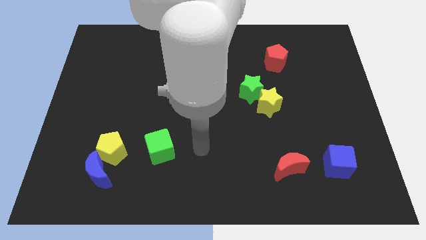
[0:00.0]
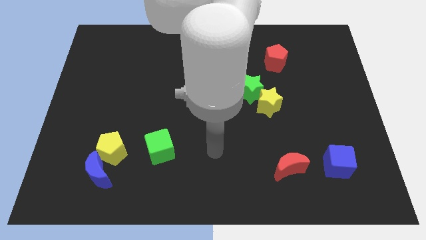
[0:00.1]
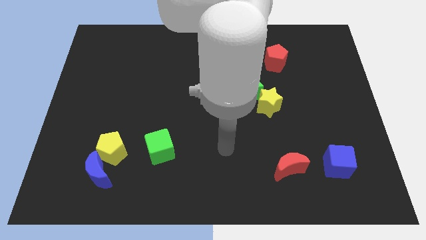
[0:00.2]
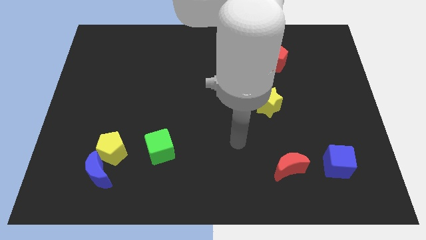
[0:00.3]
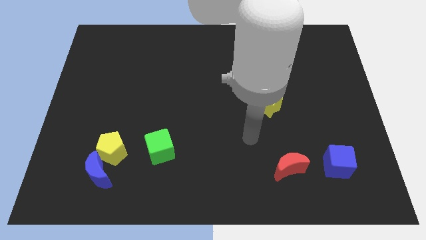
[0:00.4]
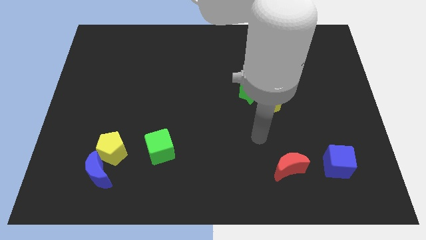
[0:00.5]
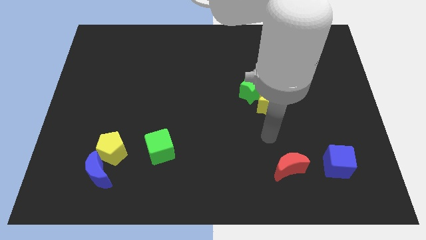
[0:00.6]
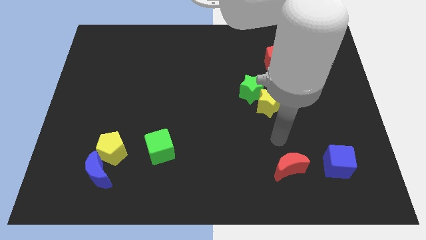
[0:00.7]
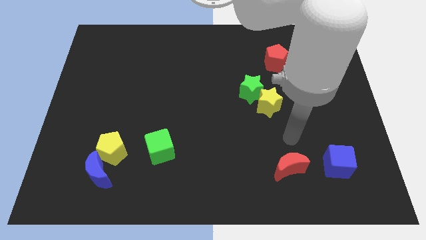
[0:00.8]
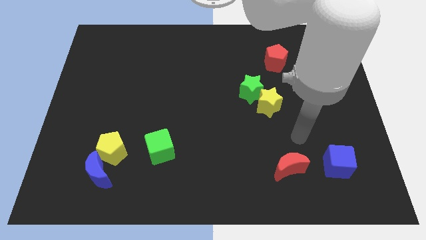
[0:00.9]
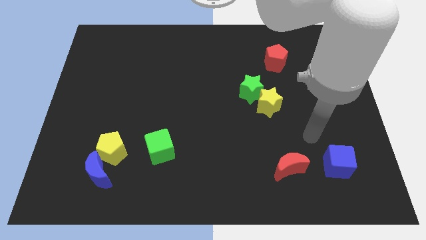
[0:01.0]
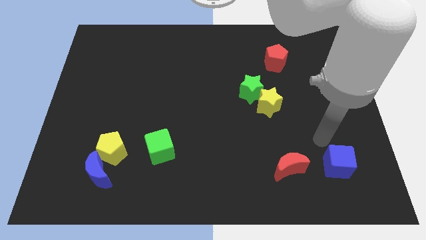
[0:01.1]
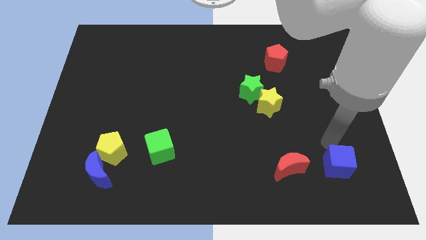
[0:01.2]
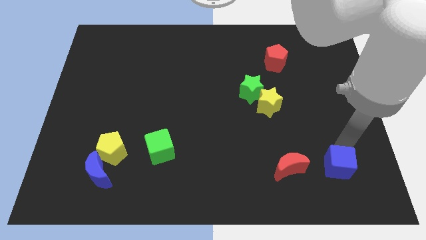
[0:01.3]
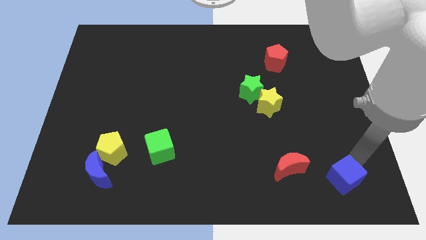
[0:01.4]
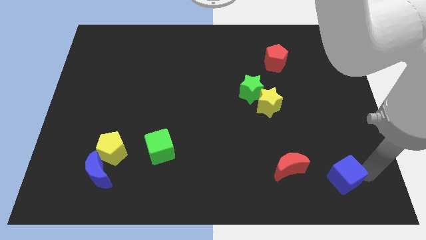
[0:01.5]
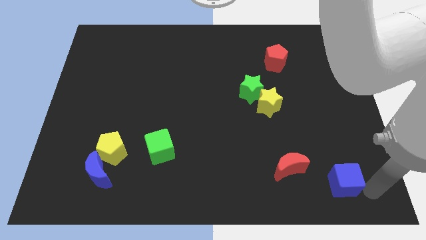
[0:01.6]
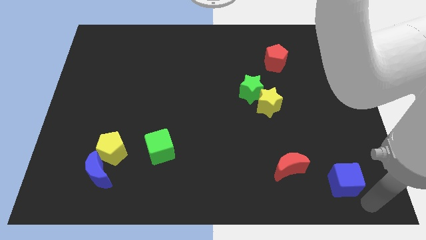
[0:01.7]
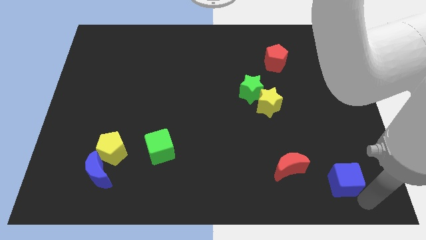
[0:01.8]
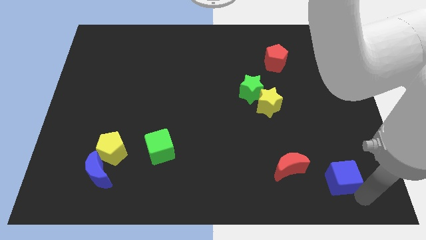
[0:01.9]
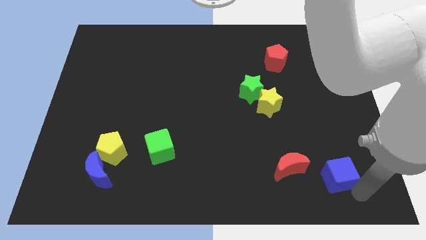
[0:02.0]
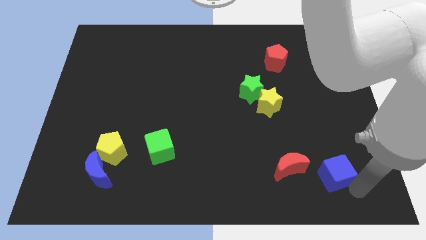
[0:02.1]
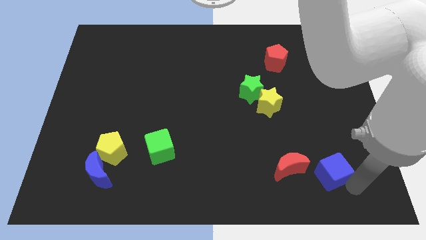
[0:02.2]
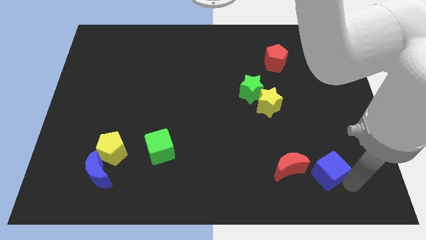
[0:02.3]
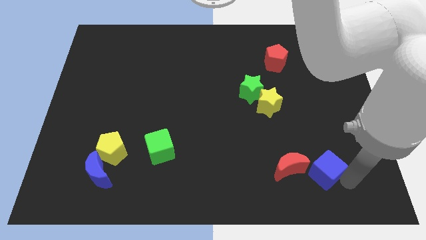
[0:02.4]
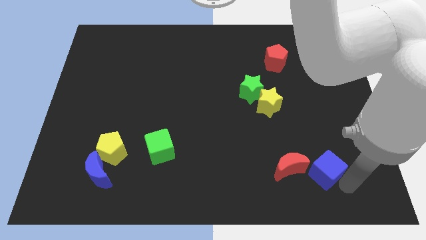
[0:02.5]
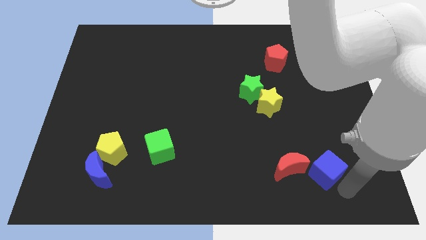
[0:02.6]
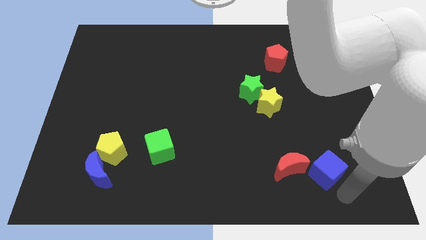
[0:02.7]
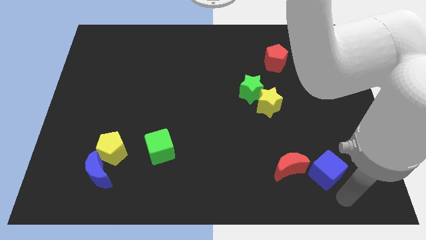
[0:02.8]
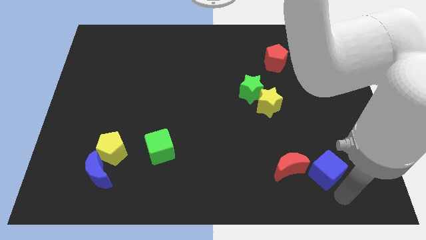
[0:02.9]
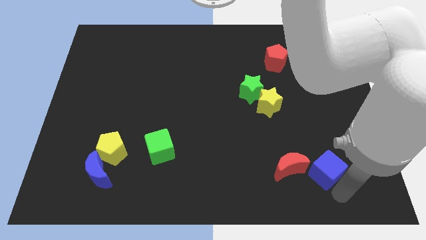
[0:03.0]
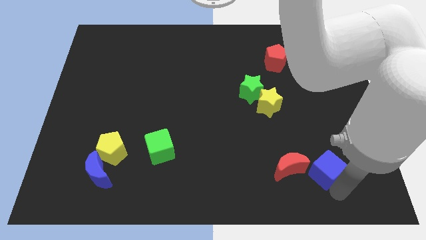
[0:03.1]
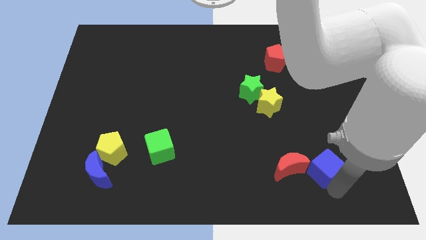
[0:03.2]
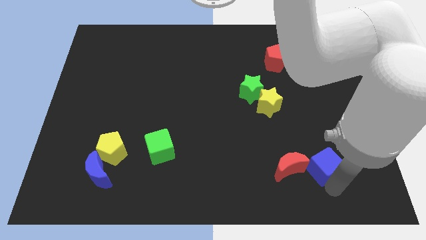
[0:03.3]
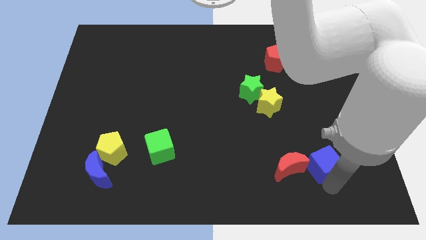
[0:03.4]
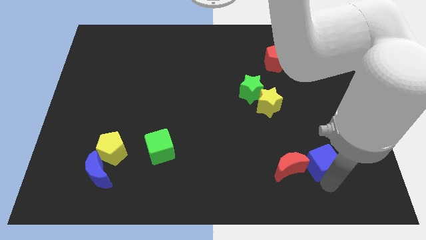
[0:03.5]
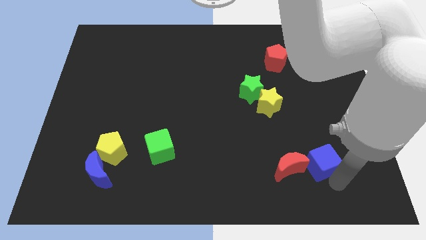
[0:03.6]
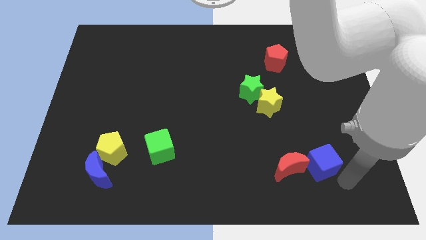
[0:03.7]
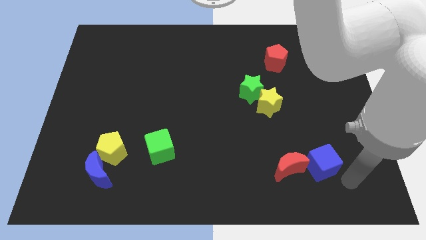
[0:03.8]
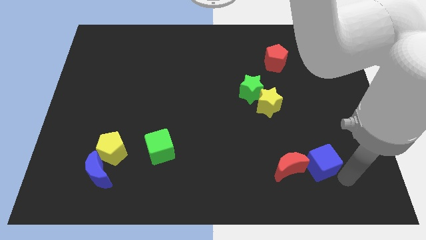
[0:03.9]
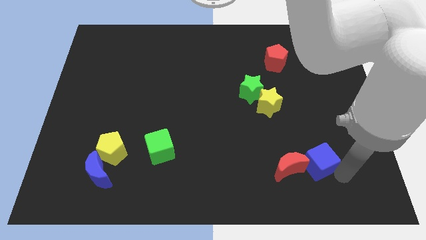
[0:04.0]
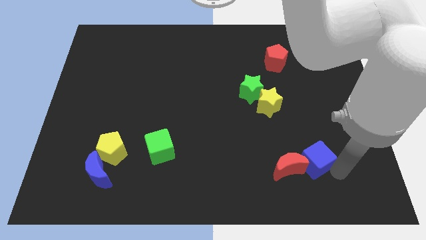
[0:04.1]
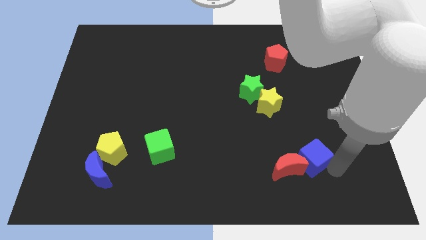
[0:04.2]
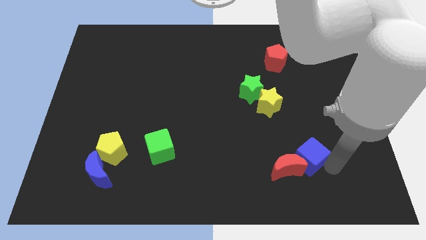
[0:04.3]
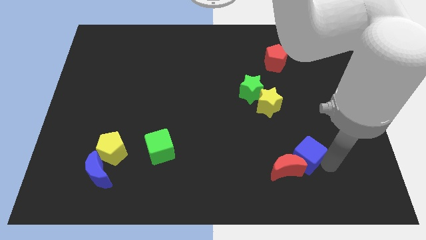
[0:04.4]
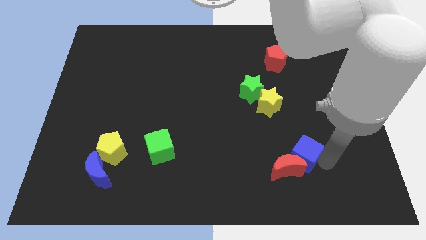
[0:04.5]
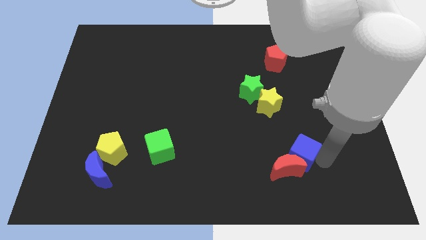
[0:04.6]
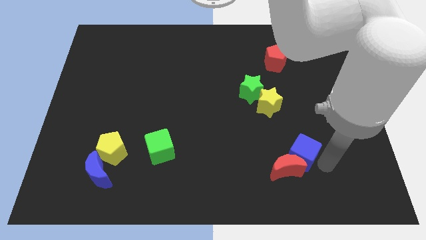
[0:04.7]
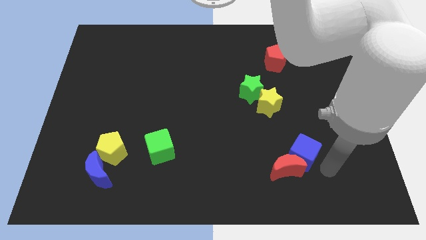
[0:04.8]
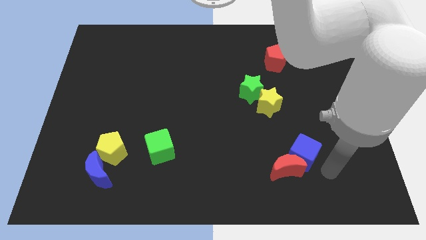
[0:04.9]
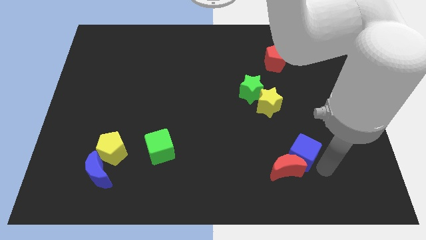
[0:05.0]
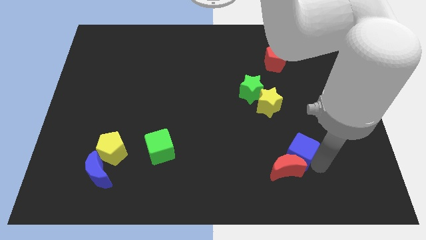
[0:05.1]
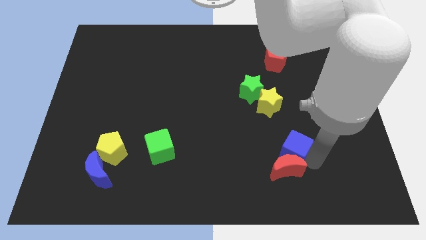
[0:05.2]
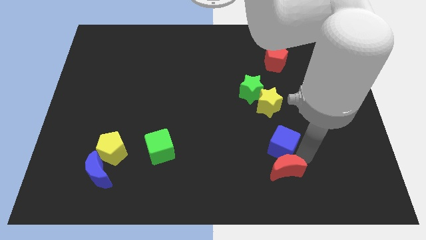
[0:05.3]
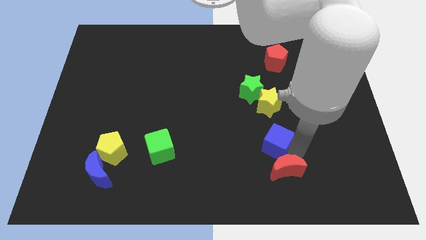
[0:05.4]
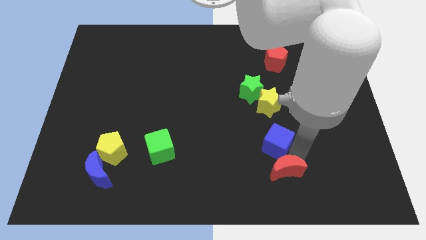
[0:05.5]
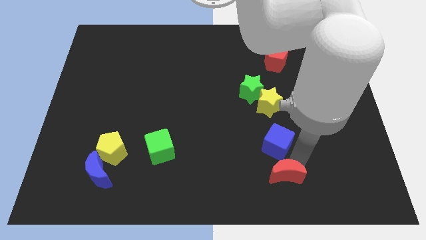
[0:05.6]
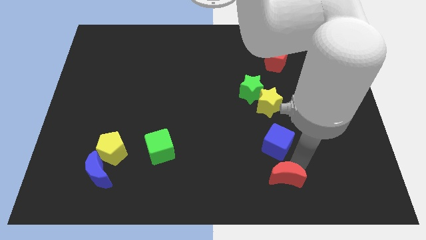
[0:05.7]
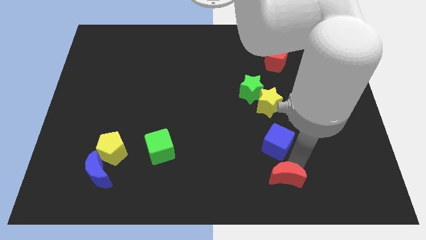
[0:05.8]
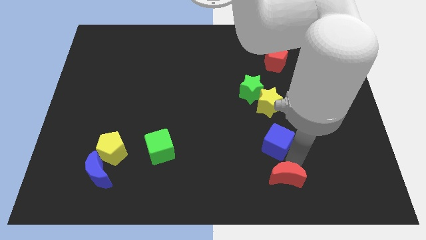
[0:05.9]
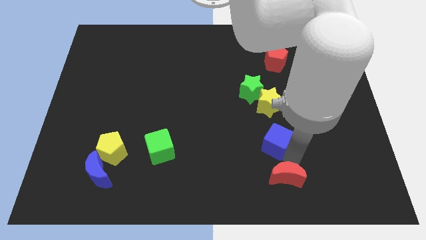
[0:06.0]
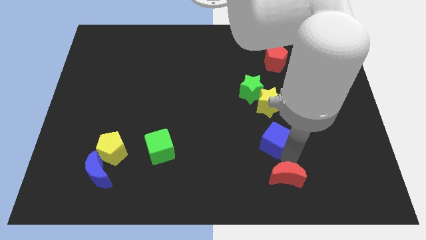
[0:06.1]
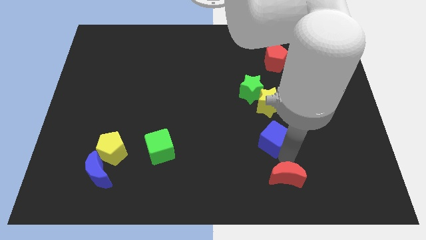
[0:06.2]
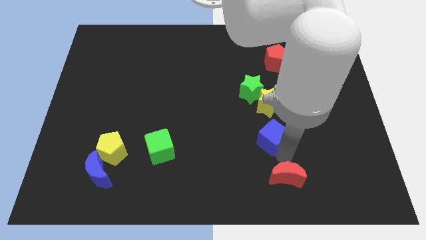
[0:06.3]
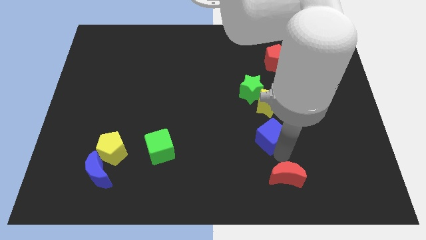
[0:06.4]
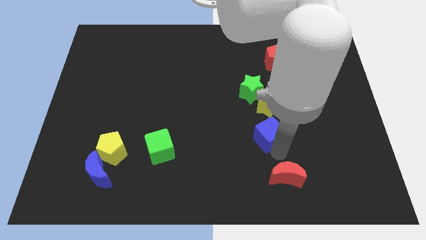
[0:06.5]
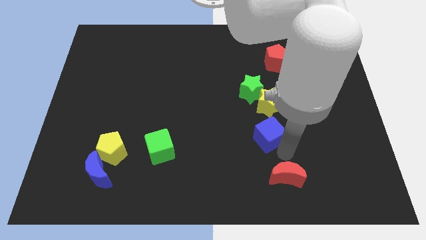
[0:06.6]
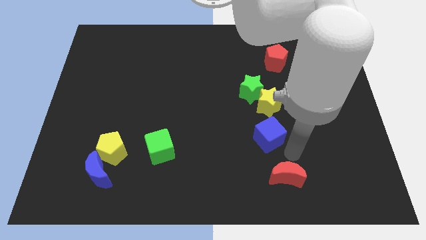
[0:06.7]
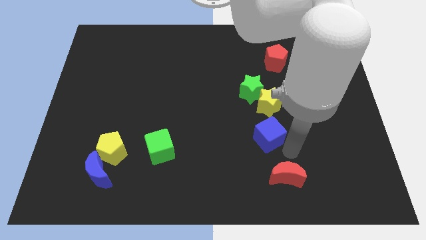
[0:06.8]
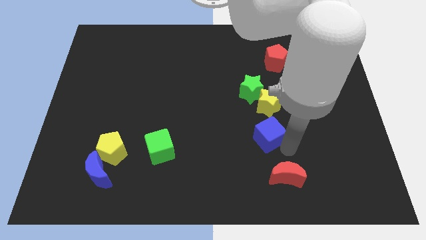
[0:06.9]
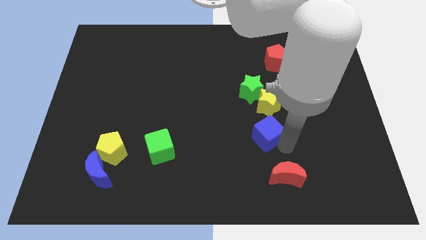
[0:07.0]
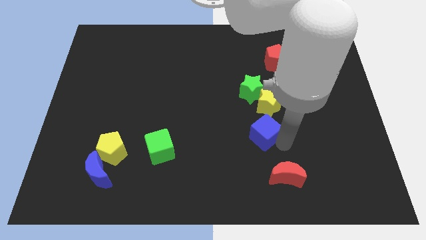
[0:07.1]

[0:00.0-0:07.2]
move the blue cube diagonally down and to the left of the yellow star
